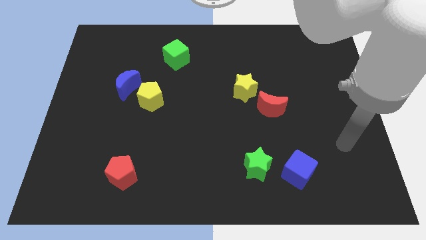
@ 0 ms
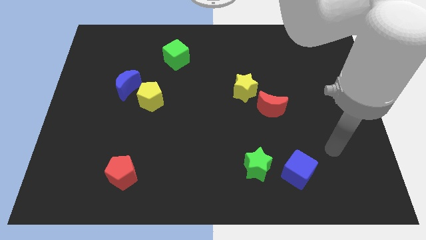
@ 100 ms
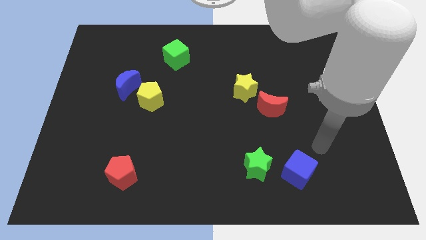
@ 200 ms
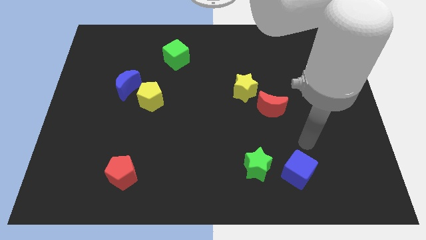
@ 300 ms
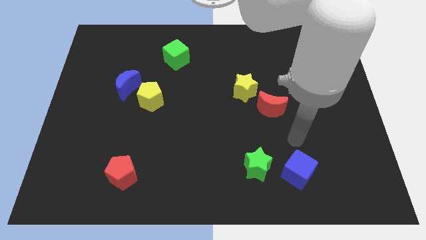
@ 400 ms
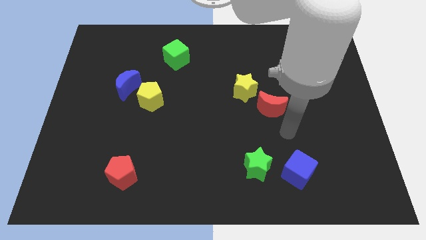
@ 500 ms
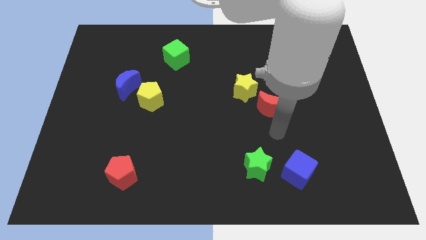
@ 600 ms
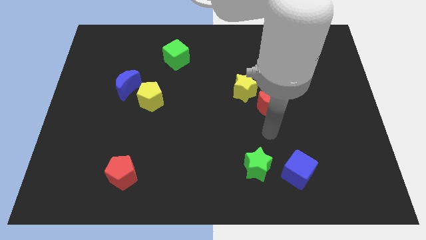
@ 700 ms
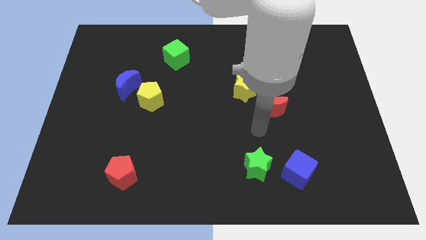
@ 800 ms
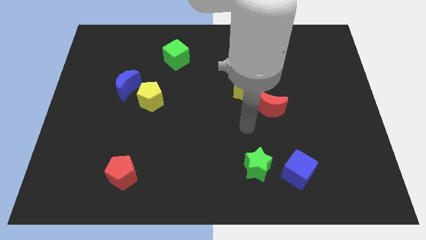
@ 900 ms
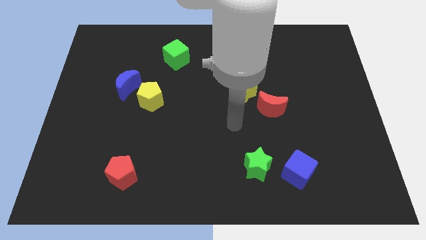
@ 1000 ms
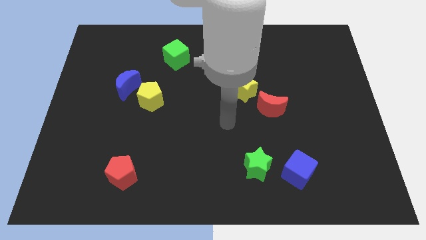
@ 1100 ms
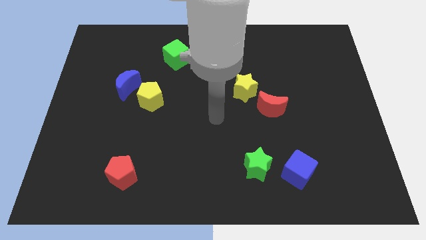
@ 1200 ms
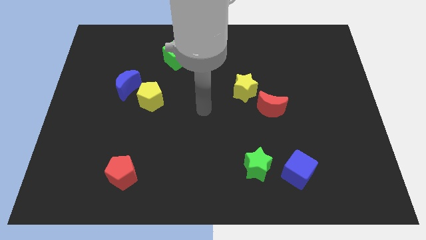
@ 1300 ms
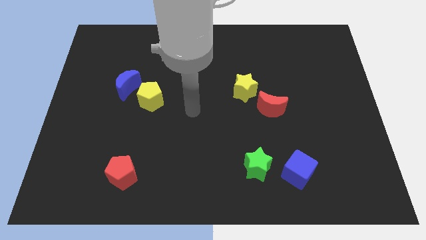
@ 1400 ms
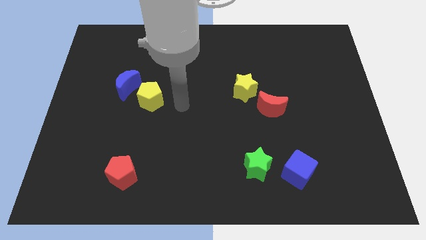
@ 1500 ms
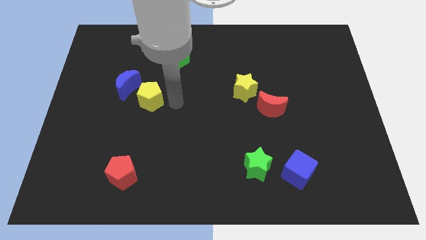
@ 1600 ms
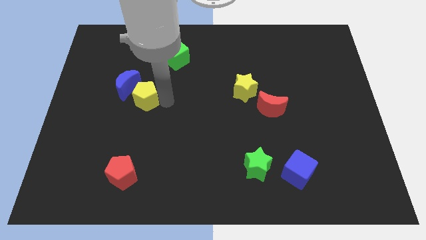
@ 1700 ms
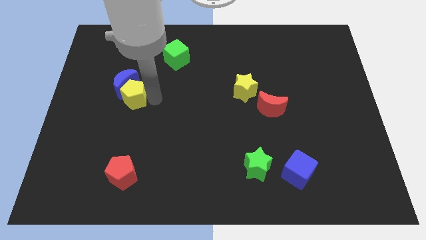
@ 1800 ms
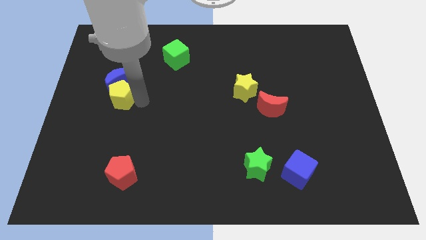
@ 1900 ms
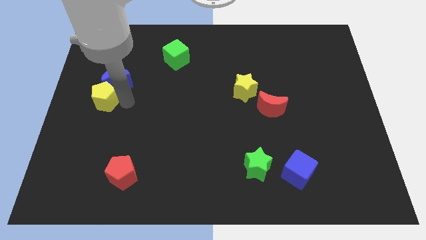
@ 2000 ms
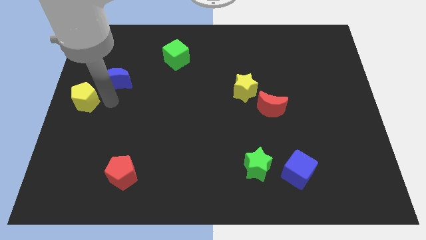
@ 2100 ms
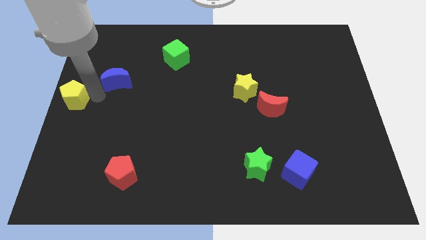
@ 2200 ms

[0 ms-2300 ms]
pull the blue moon apart from the yellow pentagon

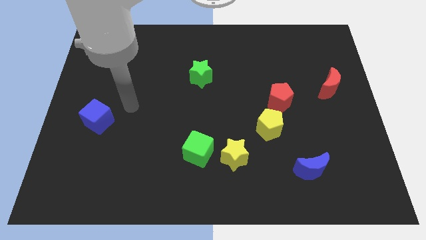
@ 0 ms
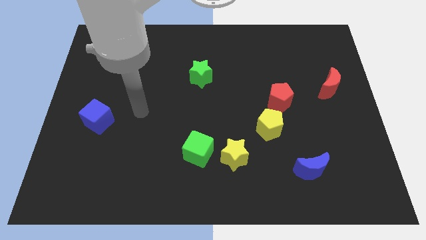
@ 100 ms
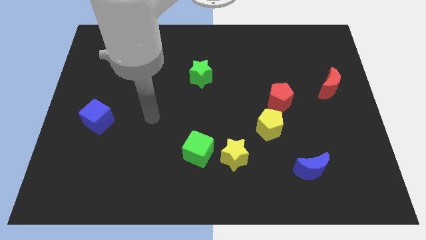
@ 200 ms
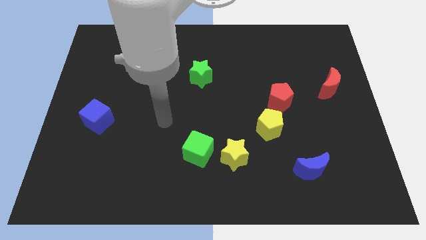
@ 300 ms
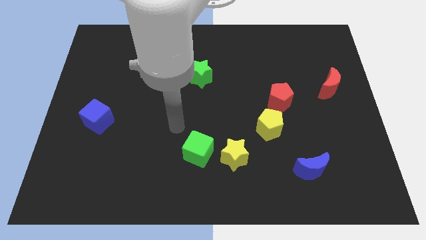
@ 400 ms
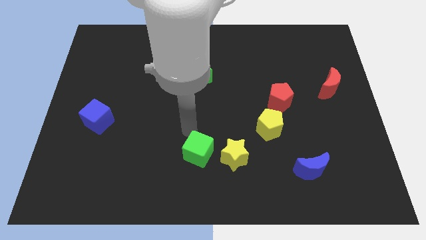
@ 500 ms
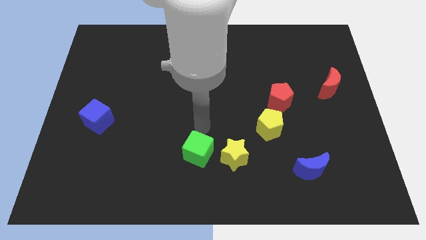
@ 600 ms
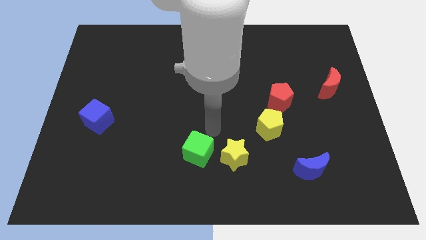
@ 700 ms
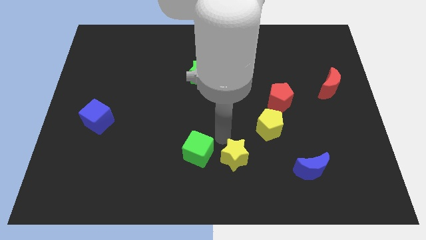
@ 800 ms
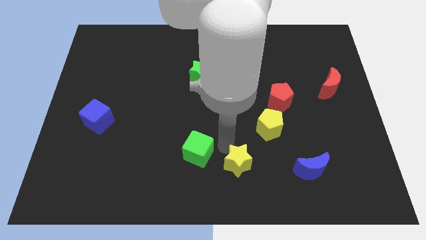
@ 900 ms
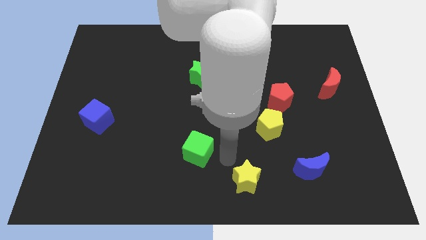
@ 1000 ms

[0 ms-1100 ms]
separate the green cube from the yellow star

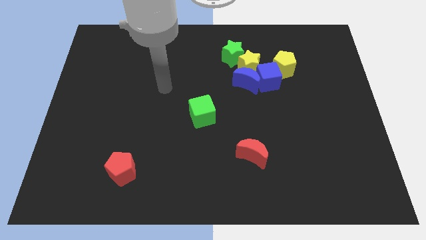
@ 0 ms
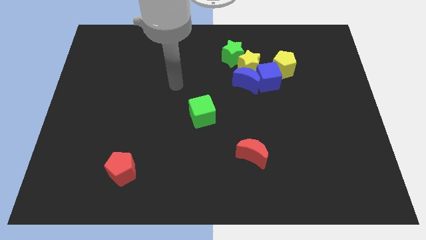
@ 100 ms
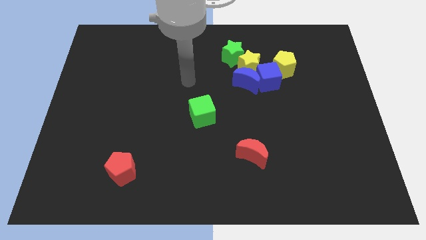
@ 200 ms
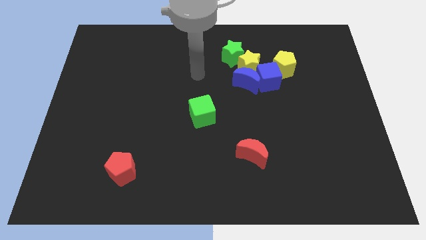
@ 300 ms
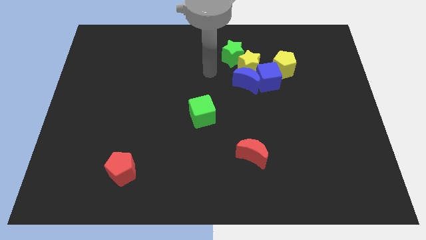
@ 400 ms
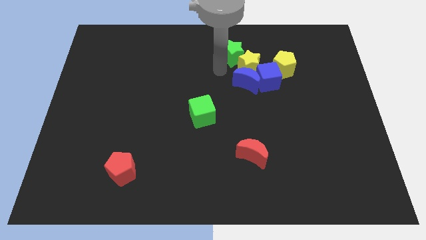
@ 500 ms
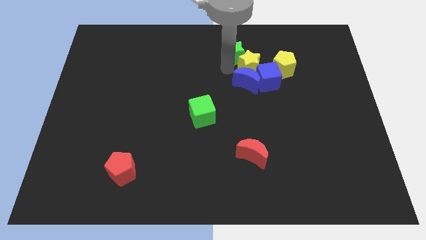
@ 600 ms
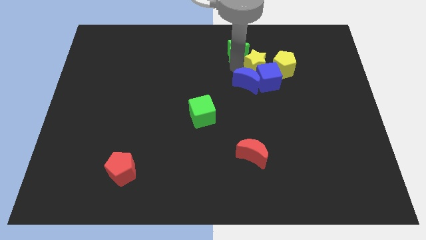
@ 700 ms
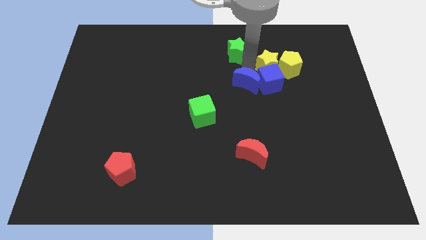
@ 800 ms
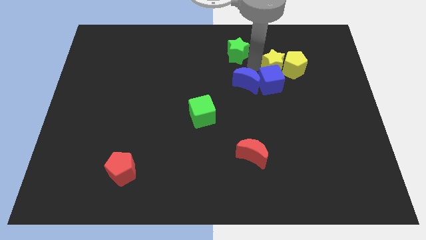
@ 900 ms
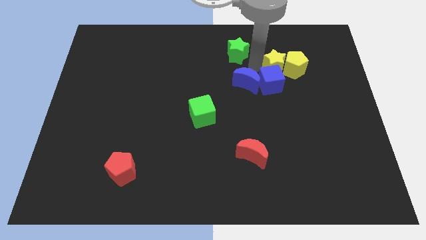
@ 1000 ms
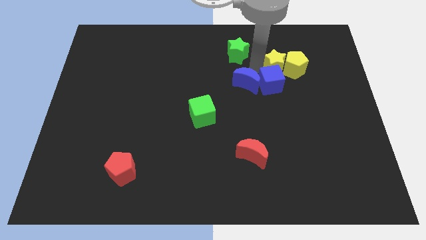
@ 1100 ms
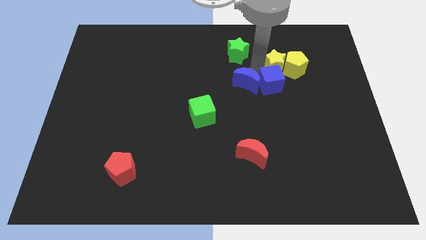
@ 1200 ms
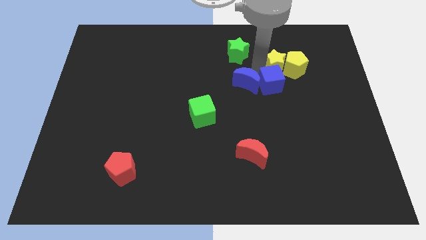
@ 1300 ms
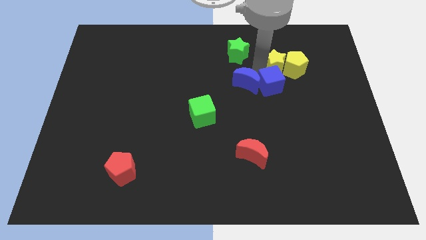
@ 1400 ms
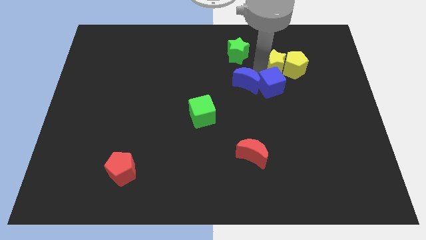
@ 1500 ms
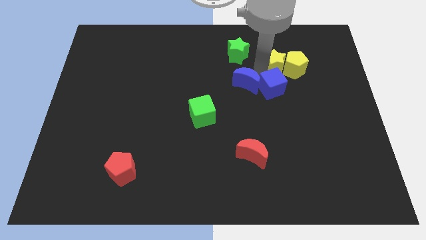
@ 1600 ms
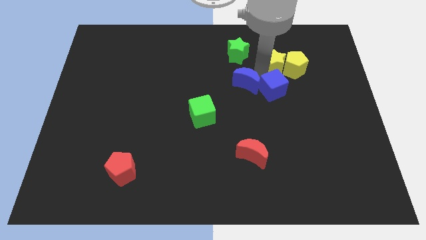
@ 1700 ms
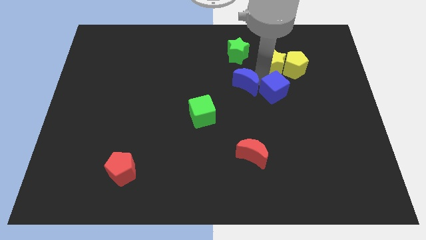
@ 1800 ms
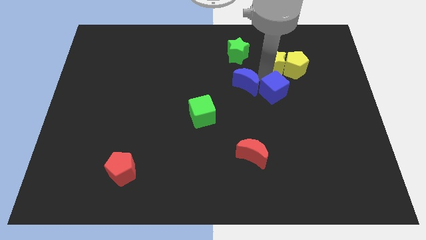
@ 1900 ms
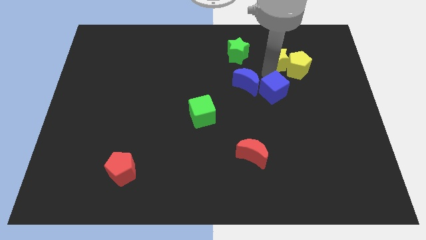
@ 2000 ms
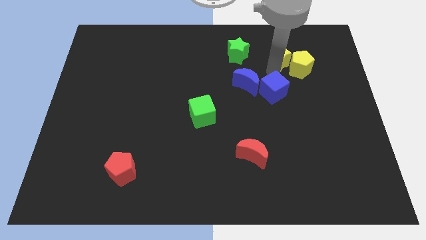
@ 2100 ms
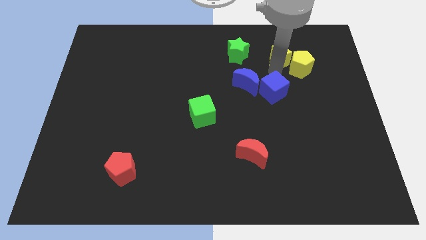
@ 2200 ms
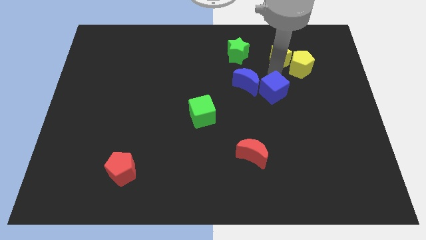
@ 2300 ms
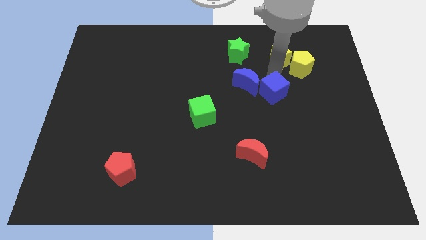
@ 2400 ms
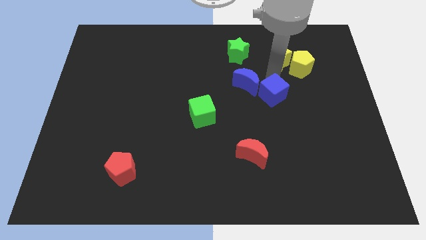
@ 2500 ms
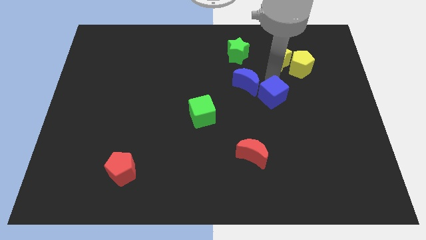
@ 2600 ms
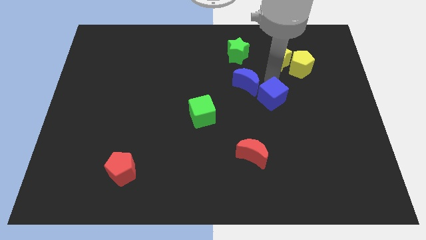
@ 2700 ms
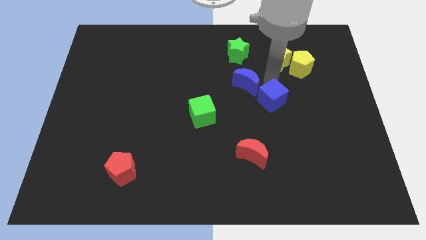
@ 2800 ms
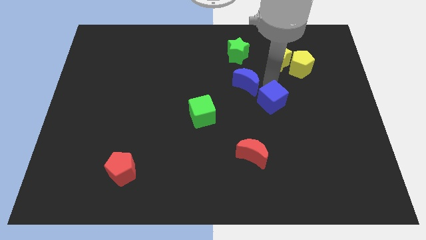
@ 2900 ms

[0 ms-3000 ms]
pull the blue cube apart from the clump

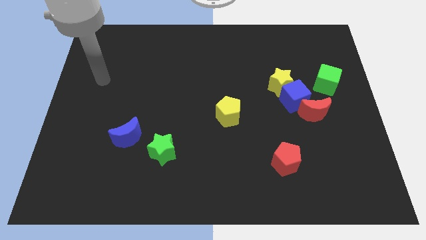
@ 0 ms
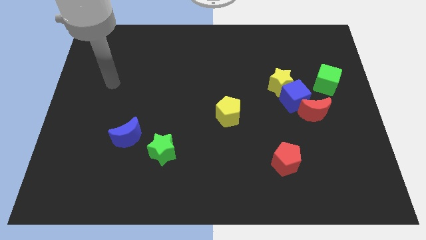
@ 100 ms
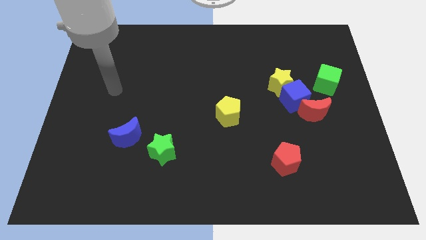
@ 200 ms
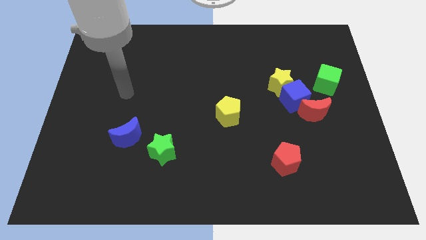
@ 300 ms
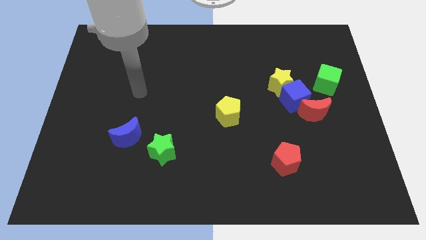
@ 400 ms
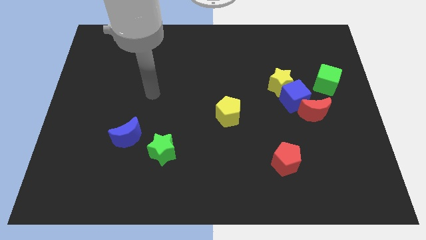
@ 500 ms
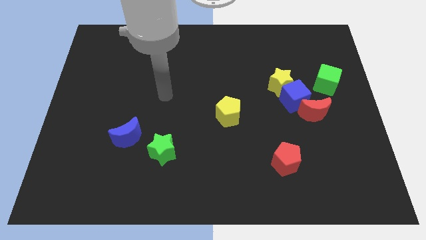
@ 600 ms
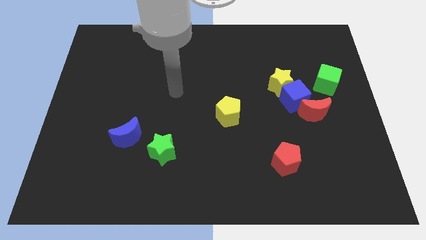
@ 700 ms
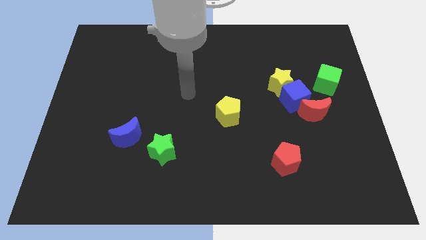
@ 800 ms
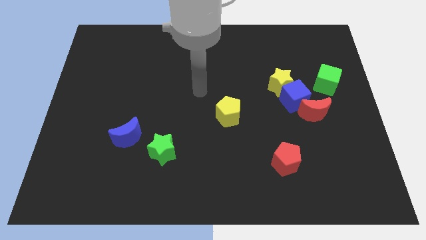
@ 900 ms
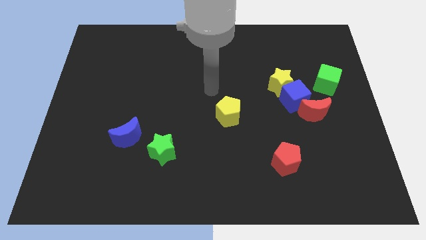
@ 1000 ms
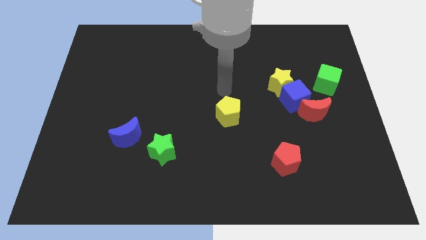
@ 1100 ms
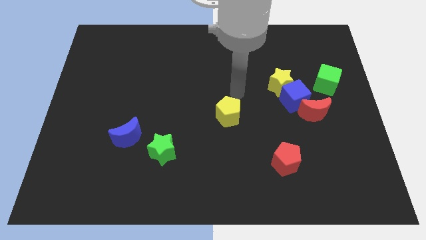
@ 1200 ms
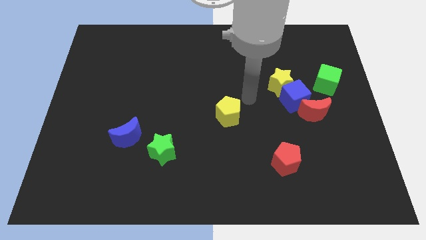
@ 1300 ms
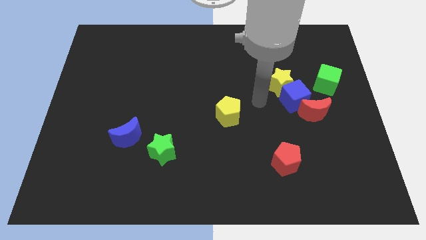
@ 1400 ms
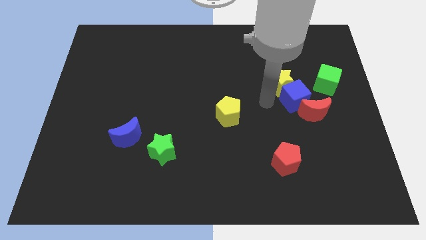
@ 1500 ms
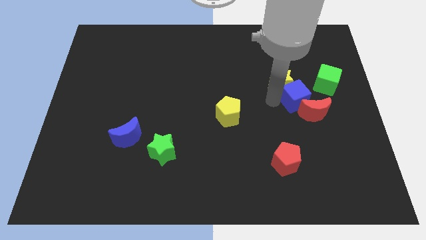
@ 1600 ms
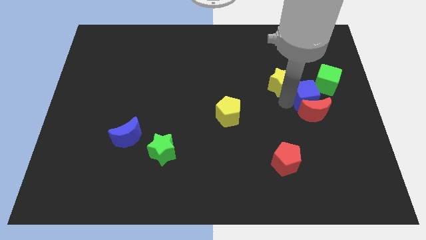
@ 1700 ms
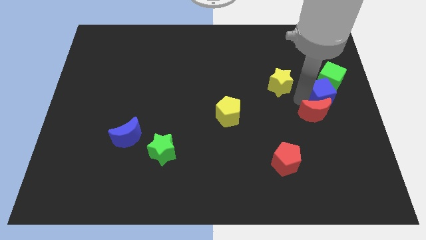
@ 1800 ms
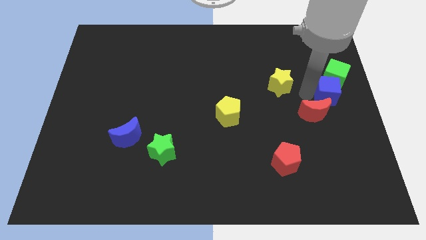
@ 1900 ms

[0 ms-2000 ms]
separate the yellow star from the blue cube

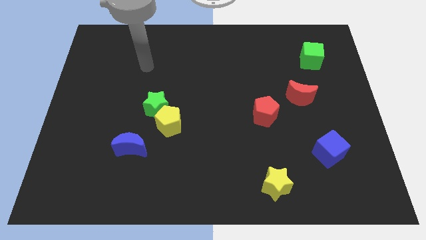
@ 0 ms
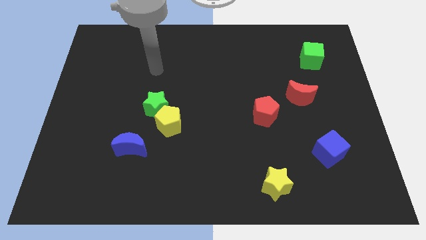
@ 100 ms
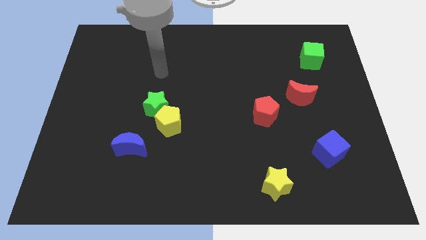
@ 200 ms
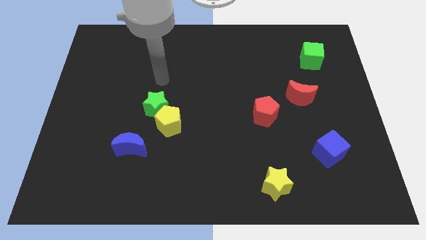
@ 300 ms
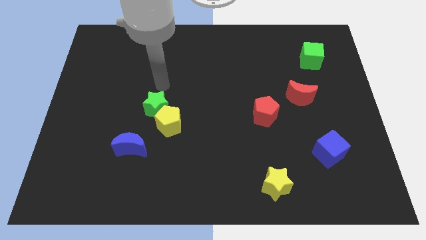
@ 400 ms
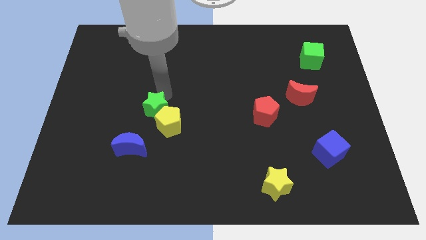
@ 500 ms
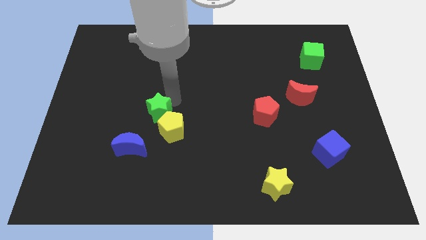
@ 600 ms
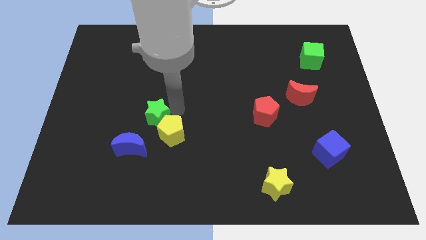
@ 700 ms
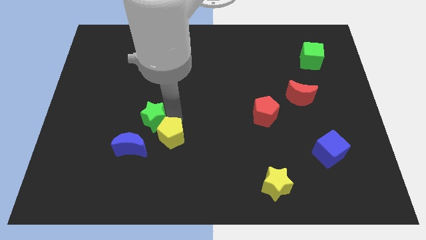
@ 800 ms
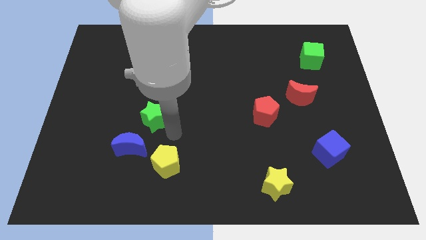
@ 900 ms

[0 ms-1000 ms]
move the green star away from the yellow pentagon
